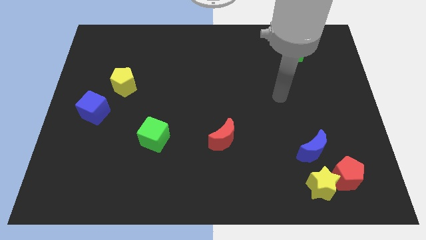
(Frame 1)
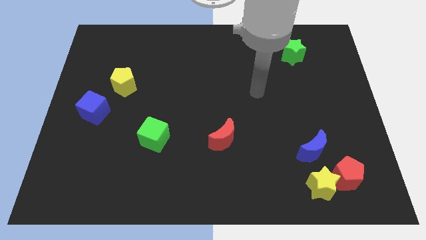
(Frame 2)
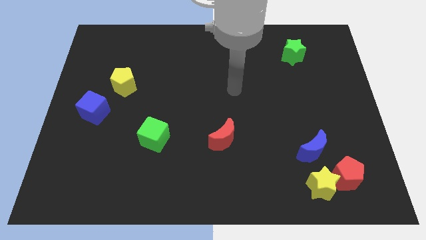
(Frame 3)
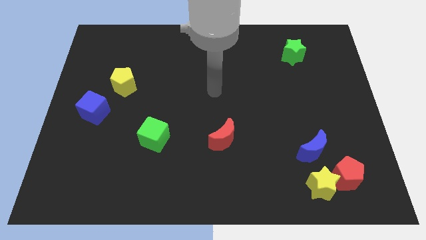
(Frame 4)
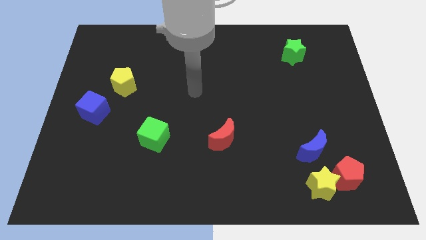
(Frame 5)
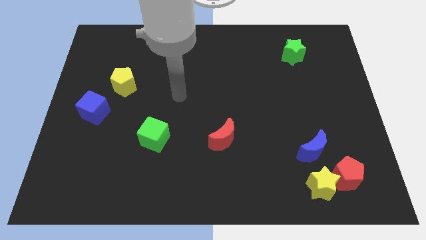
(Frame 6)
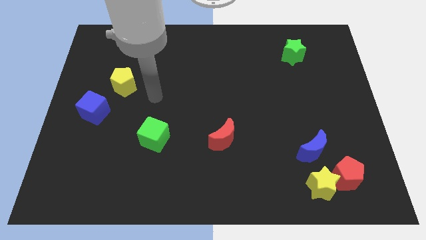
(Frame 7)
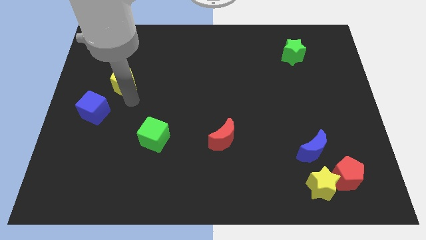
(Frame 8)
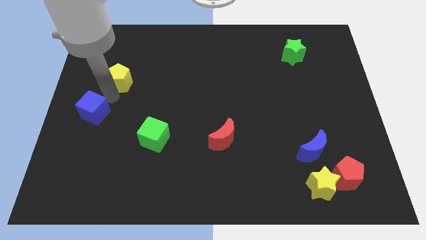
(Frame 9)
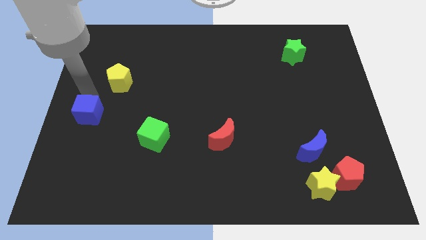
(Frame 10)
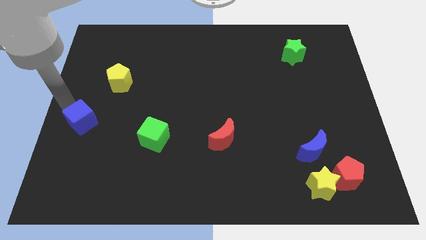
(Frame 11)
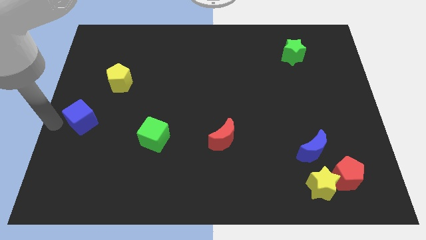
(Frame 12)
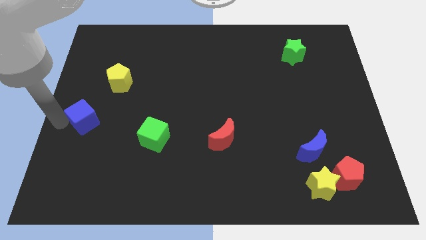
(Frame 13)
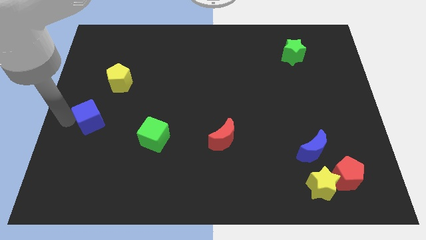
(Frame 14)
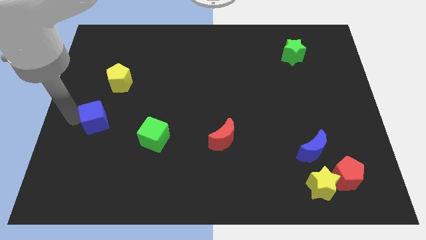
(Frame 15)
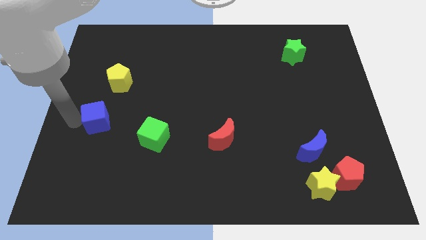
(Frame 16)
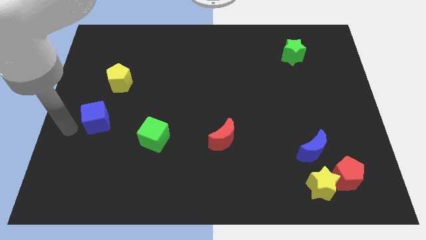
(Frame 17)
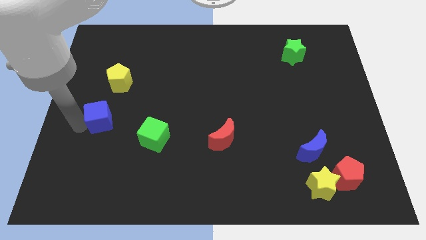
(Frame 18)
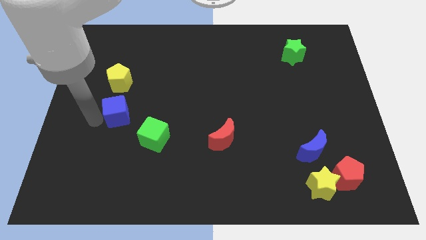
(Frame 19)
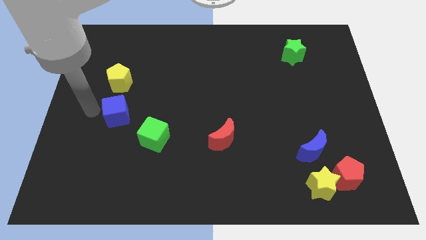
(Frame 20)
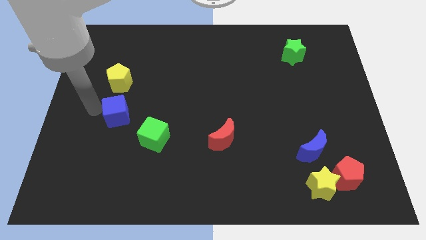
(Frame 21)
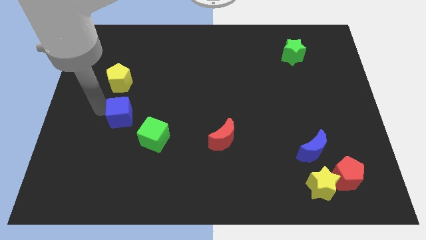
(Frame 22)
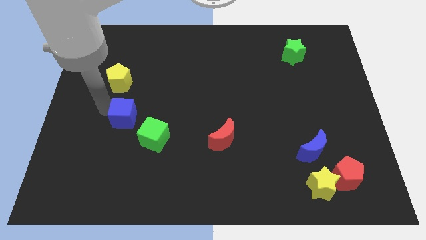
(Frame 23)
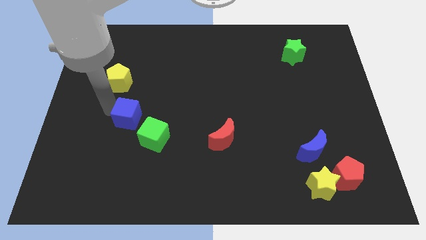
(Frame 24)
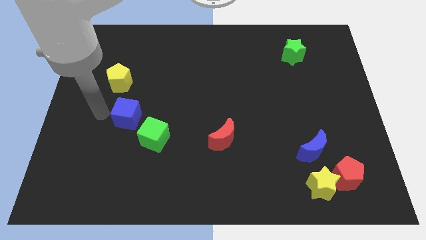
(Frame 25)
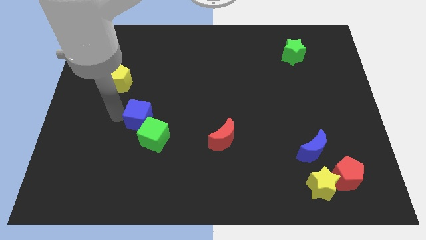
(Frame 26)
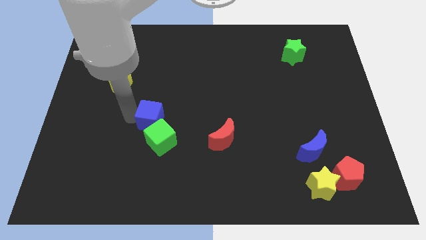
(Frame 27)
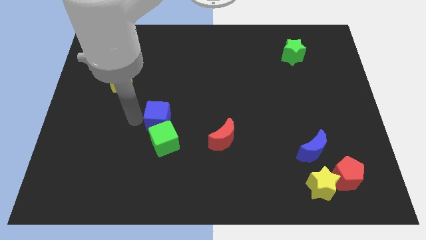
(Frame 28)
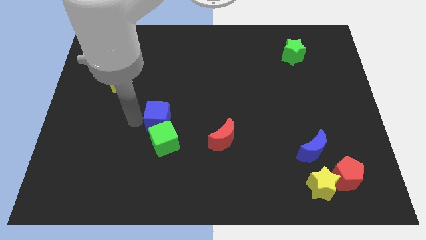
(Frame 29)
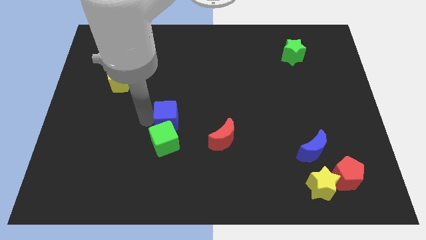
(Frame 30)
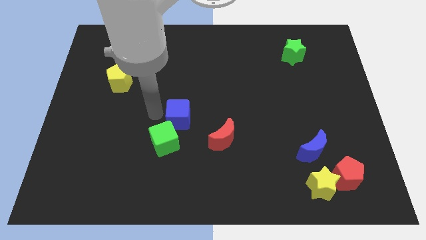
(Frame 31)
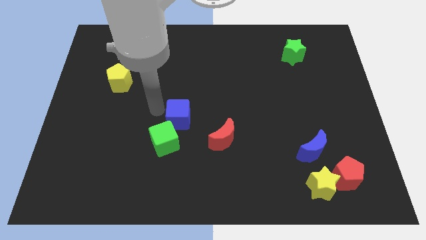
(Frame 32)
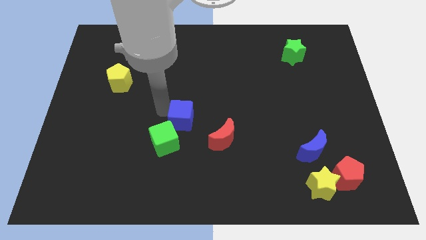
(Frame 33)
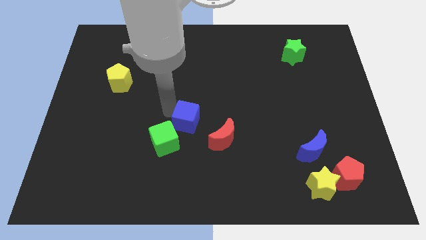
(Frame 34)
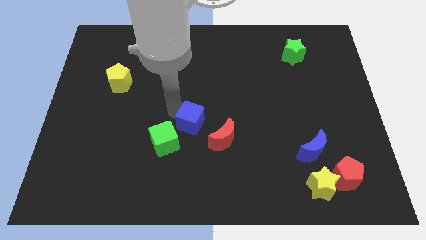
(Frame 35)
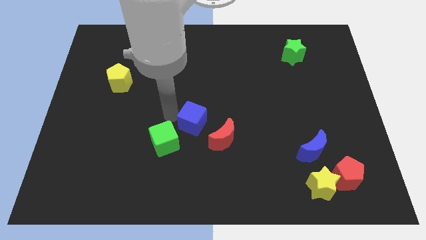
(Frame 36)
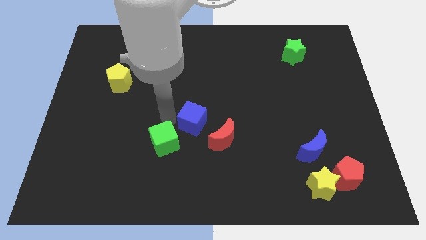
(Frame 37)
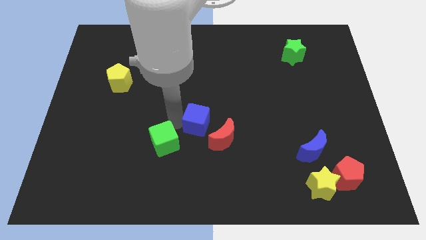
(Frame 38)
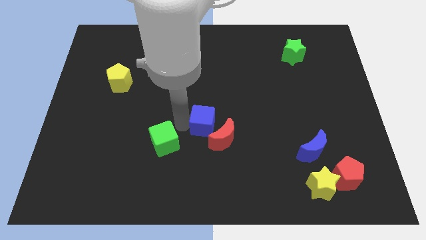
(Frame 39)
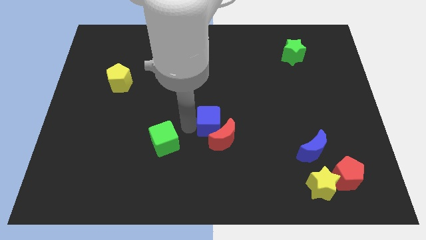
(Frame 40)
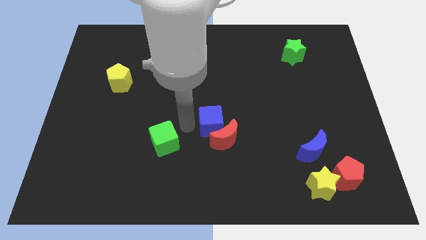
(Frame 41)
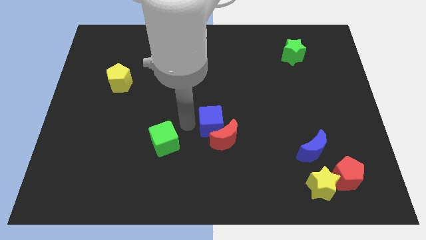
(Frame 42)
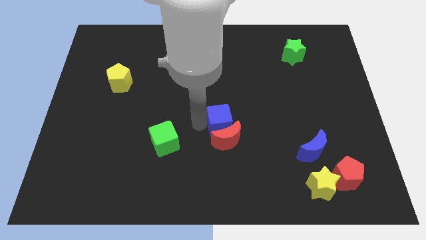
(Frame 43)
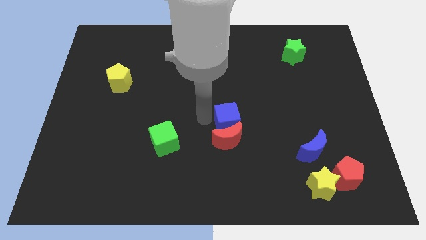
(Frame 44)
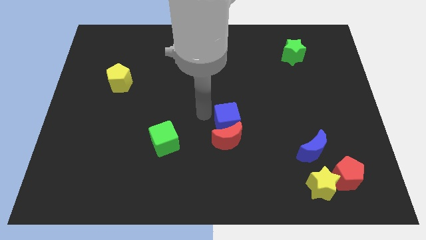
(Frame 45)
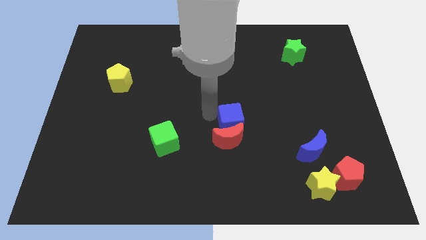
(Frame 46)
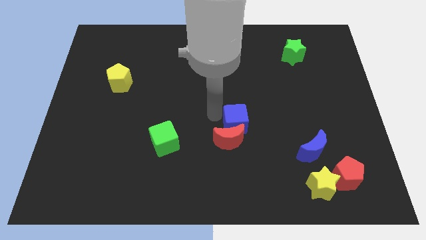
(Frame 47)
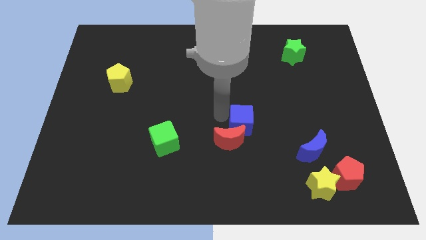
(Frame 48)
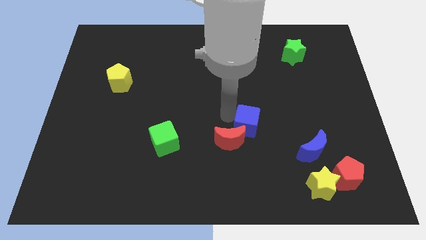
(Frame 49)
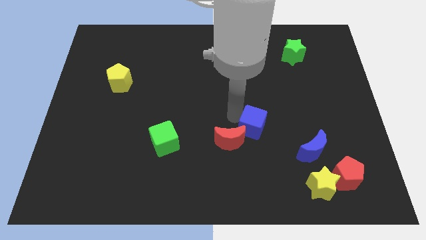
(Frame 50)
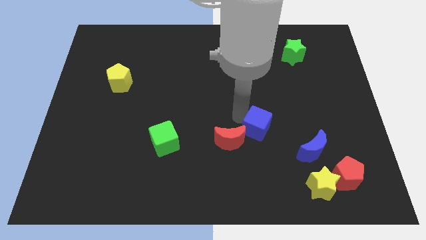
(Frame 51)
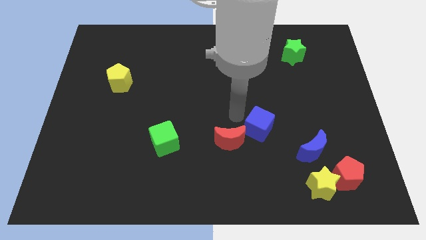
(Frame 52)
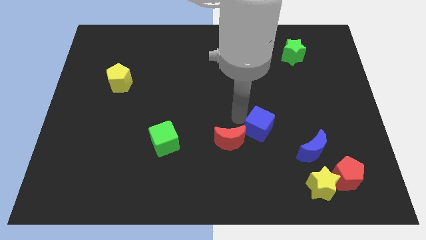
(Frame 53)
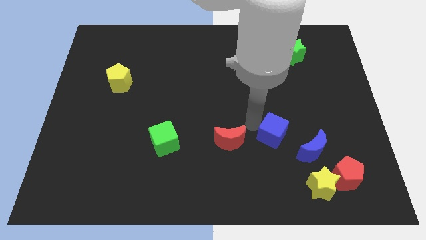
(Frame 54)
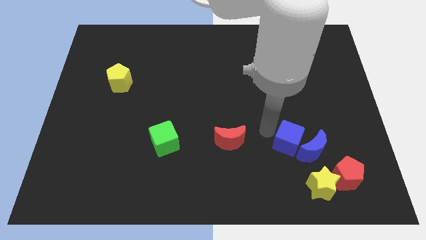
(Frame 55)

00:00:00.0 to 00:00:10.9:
put the blue cube close to the blue moon

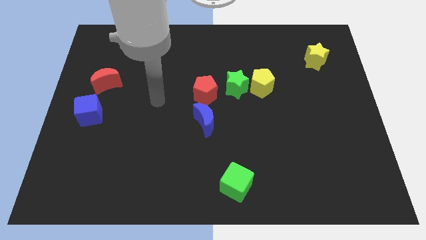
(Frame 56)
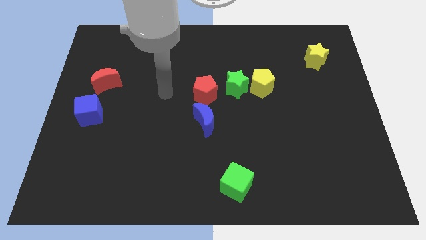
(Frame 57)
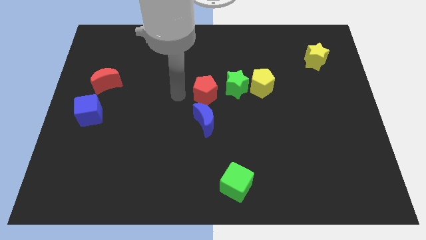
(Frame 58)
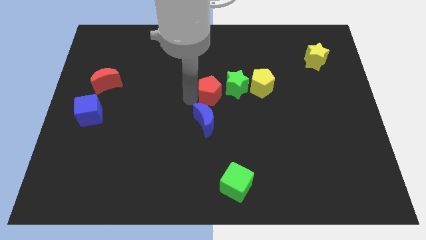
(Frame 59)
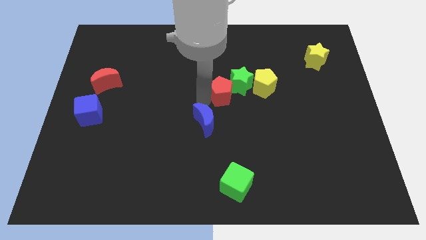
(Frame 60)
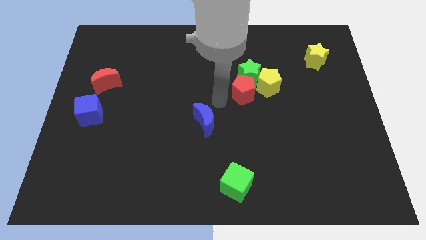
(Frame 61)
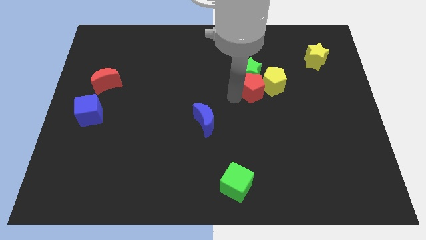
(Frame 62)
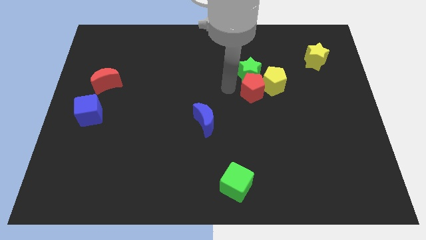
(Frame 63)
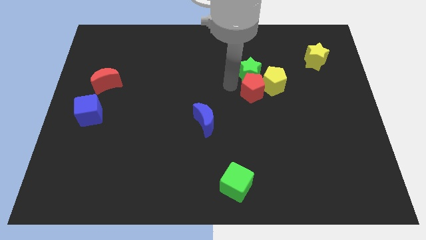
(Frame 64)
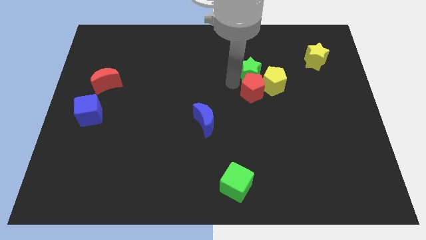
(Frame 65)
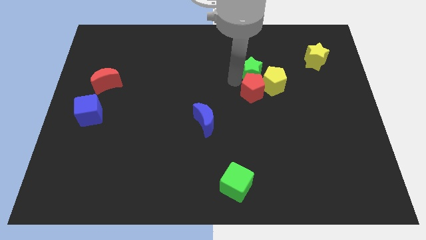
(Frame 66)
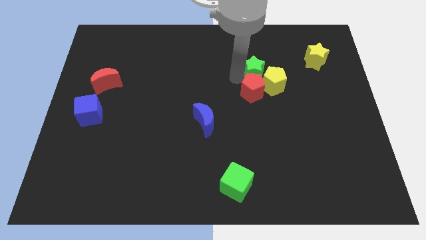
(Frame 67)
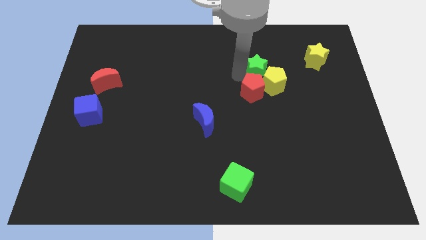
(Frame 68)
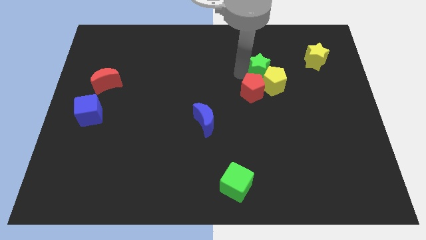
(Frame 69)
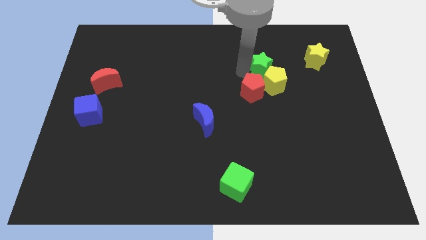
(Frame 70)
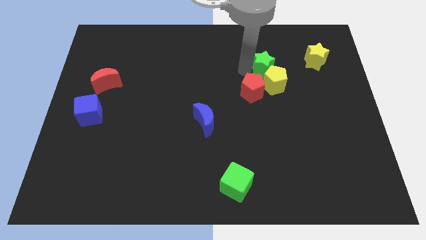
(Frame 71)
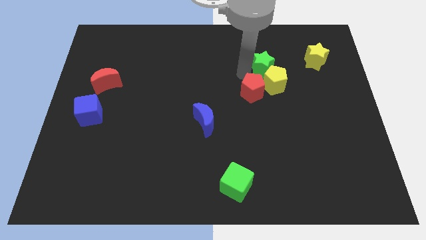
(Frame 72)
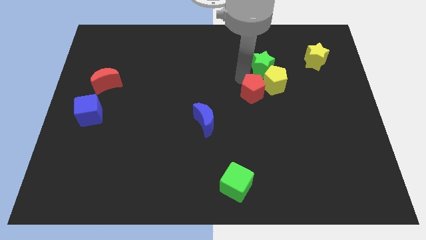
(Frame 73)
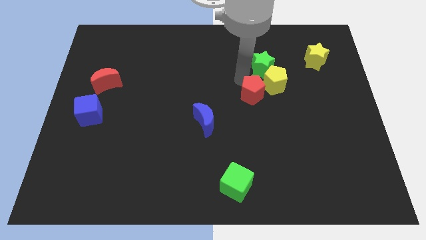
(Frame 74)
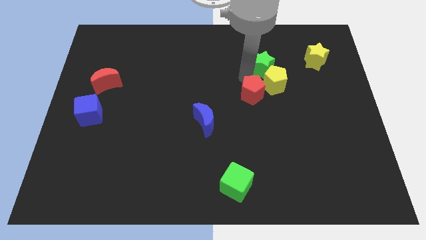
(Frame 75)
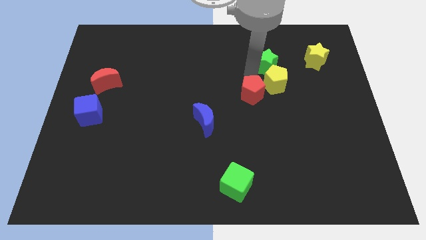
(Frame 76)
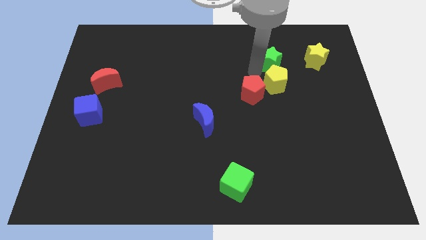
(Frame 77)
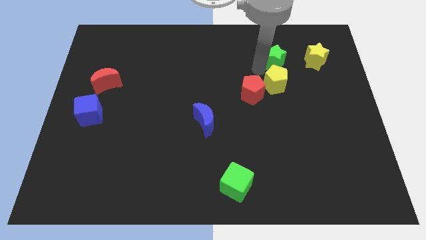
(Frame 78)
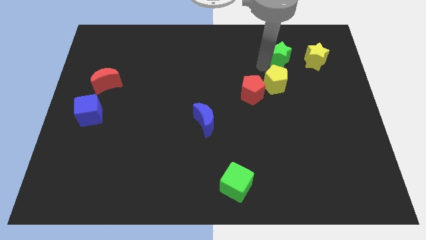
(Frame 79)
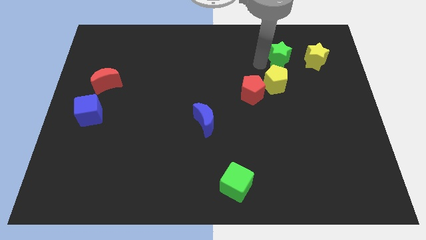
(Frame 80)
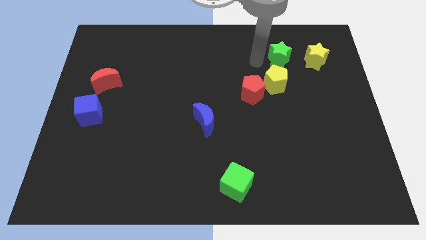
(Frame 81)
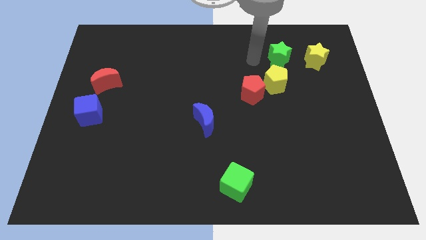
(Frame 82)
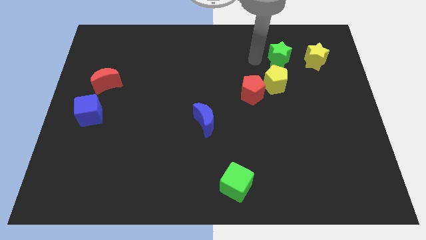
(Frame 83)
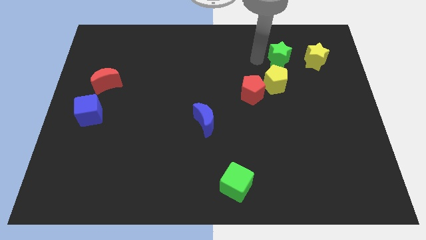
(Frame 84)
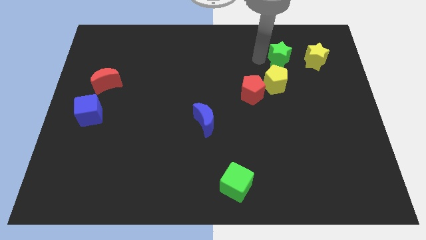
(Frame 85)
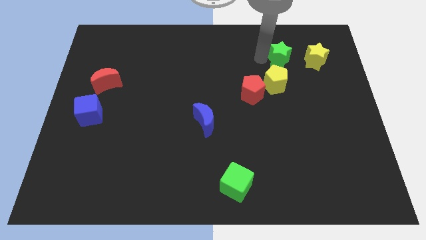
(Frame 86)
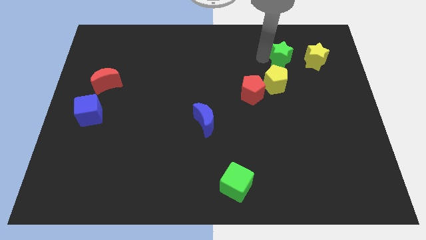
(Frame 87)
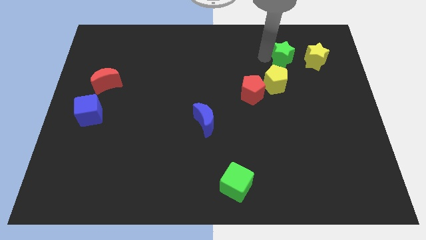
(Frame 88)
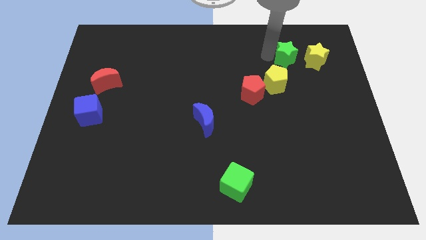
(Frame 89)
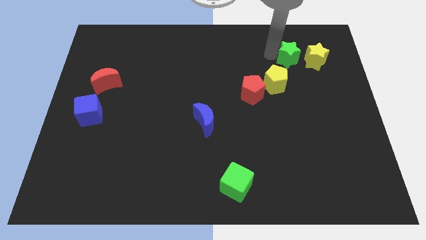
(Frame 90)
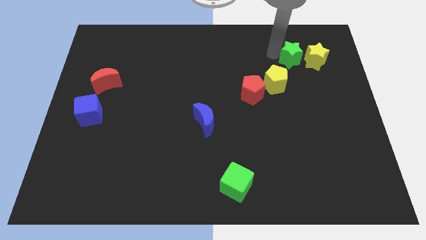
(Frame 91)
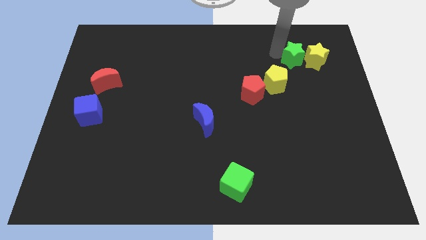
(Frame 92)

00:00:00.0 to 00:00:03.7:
put the green star close to the yellow star
